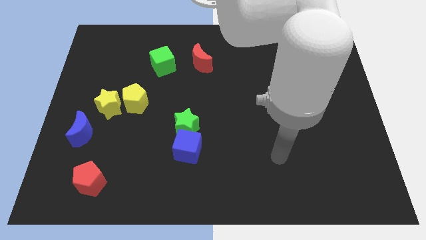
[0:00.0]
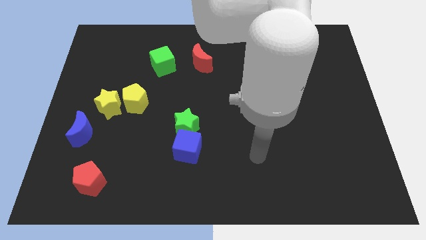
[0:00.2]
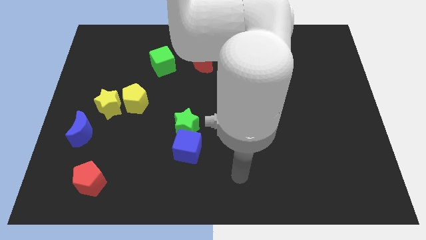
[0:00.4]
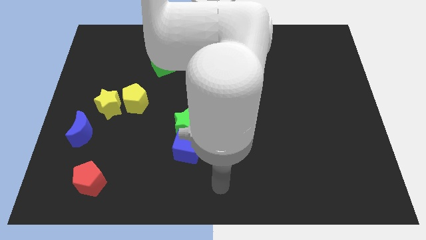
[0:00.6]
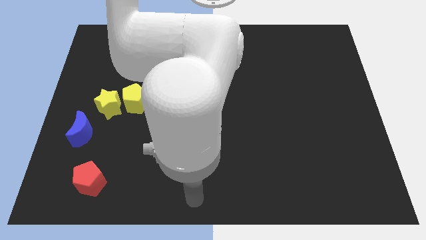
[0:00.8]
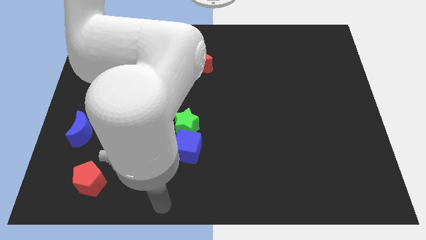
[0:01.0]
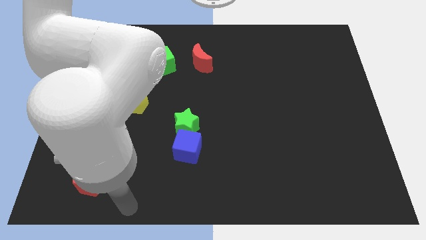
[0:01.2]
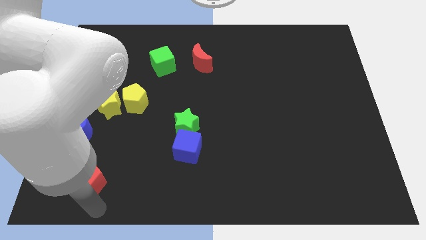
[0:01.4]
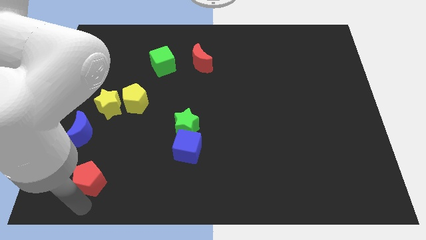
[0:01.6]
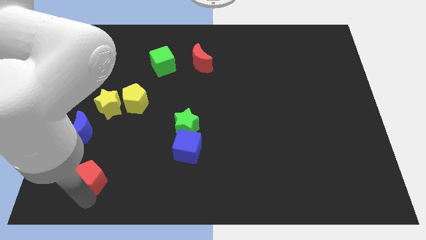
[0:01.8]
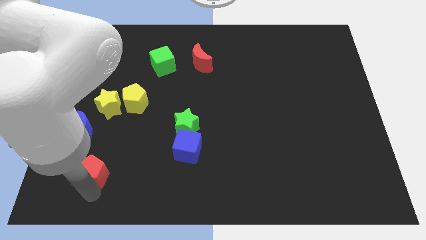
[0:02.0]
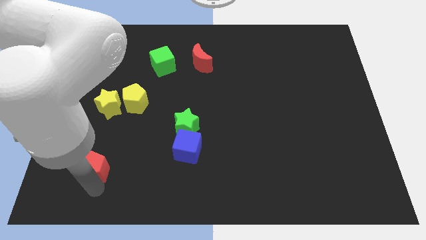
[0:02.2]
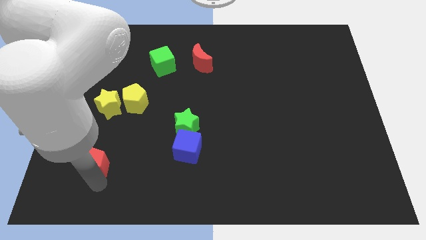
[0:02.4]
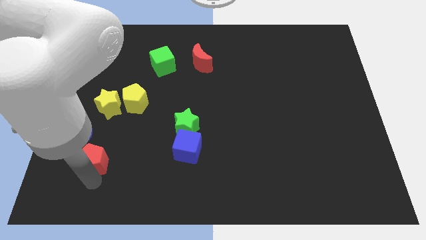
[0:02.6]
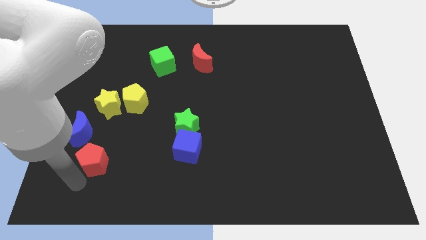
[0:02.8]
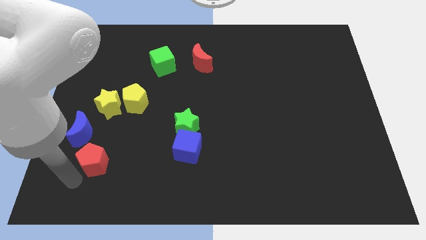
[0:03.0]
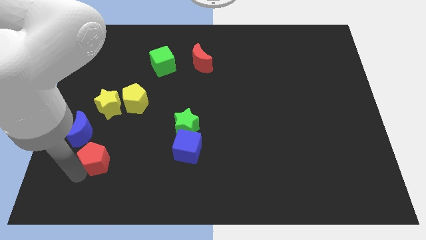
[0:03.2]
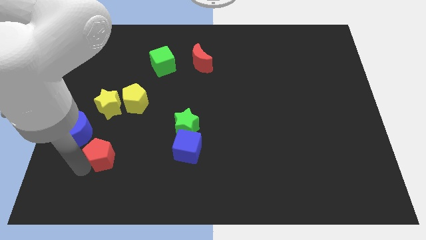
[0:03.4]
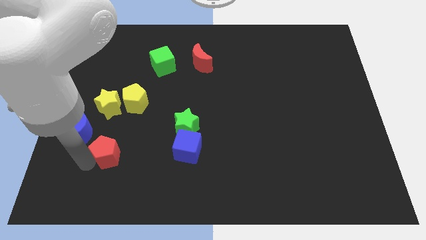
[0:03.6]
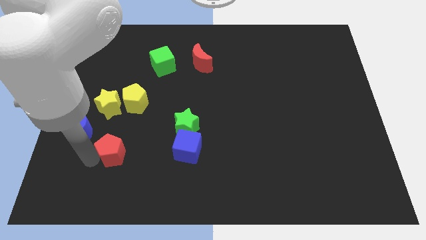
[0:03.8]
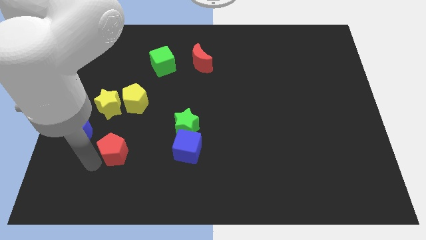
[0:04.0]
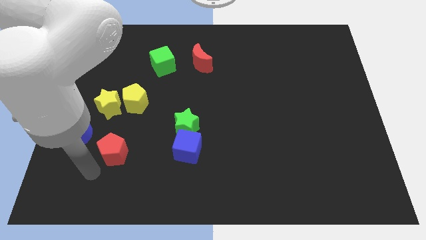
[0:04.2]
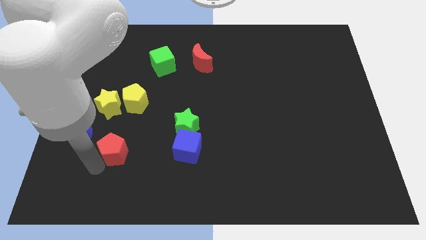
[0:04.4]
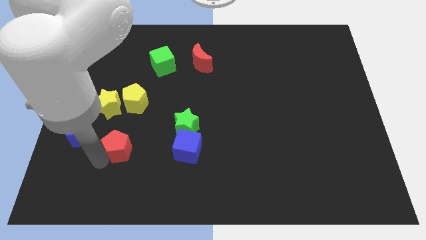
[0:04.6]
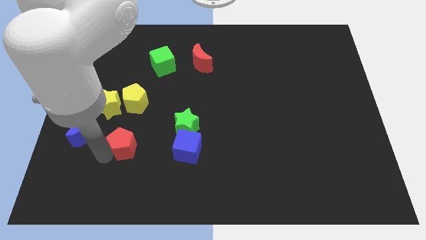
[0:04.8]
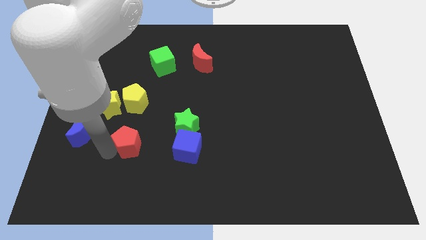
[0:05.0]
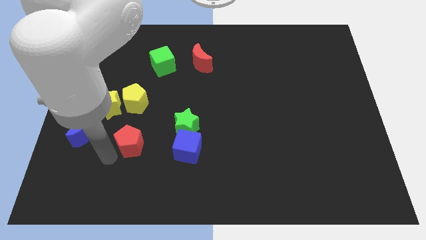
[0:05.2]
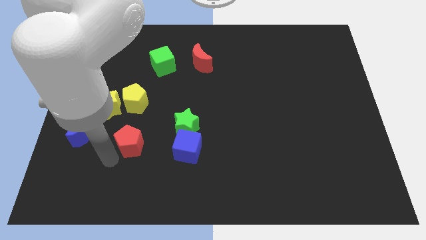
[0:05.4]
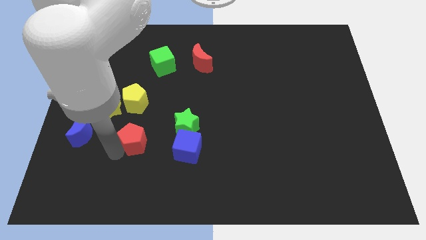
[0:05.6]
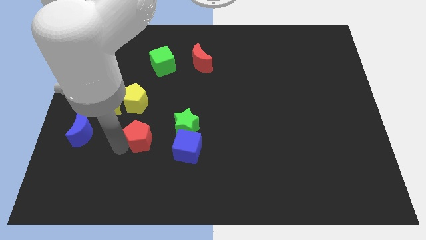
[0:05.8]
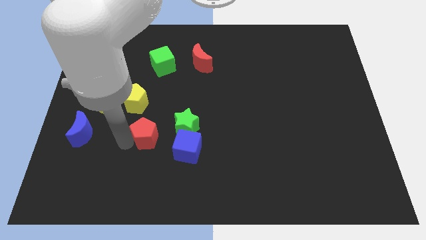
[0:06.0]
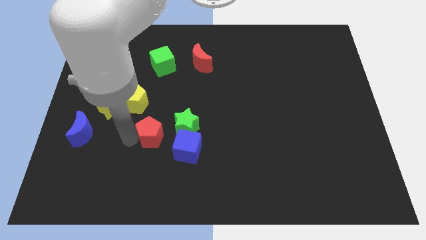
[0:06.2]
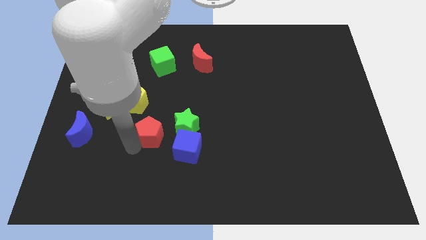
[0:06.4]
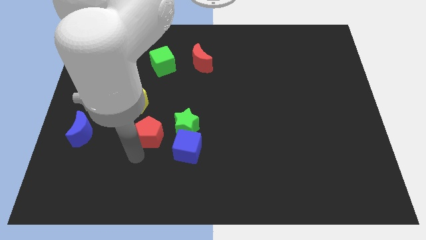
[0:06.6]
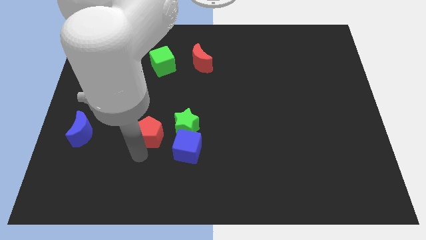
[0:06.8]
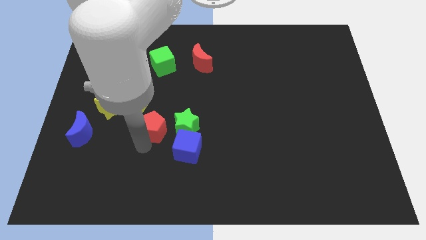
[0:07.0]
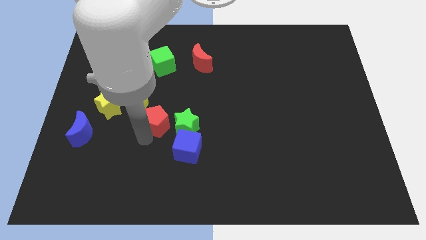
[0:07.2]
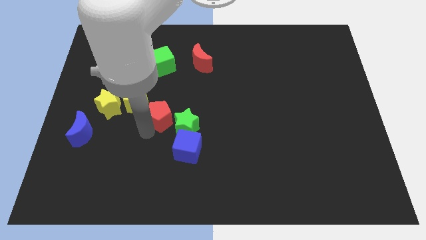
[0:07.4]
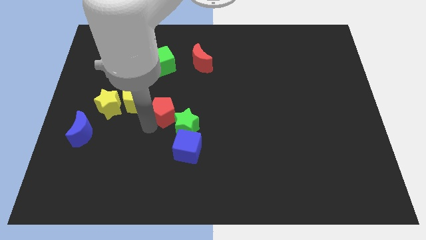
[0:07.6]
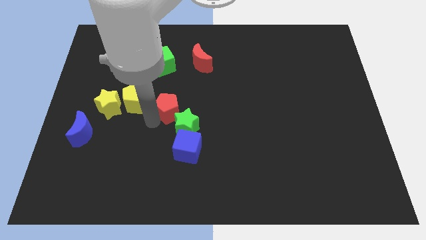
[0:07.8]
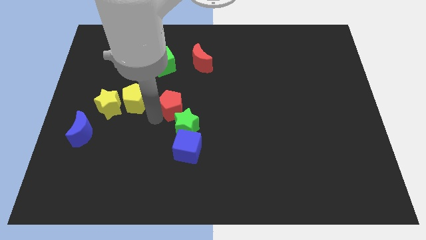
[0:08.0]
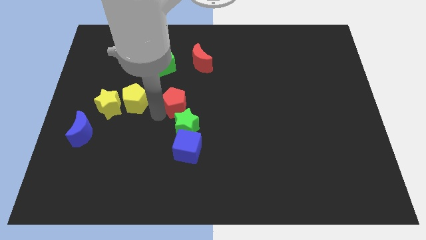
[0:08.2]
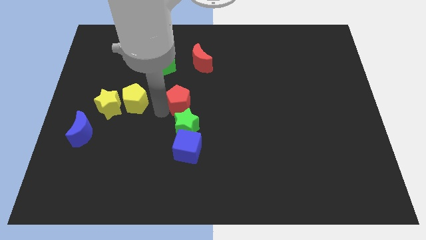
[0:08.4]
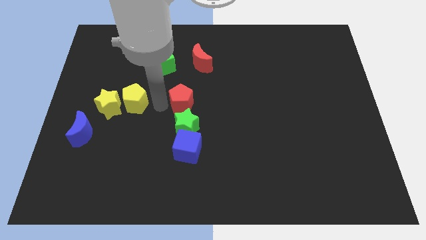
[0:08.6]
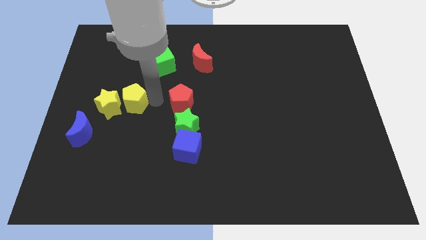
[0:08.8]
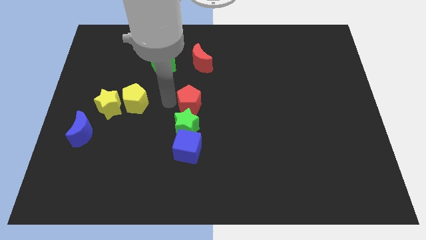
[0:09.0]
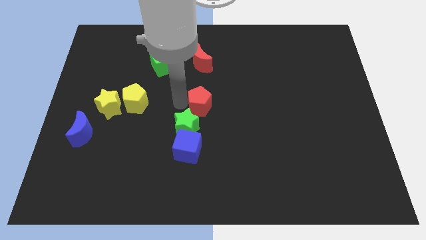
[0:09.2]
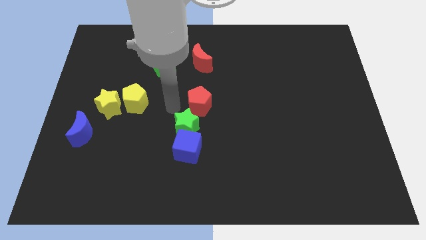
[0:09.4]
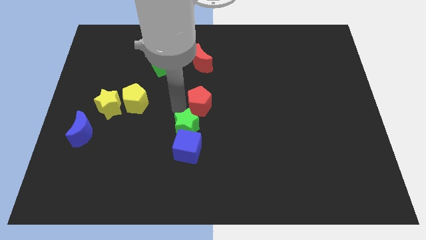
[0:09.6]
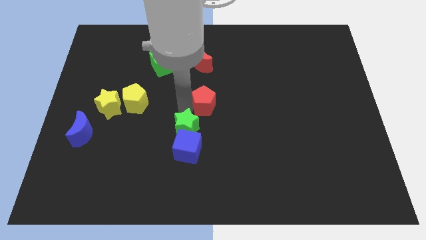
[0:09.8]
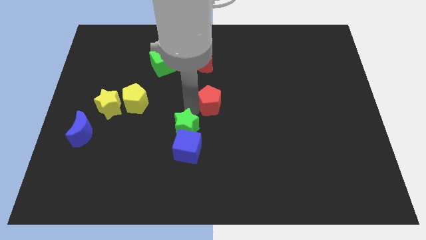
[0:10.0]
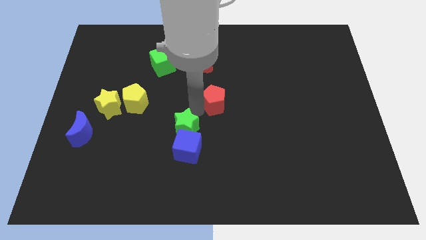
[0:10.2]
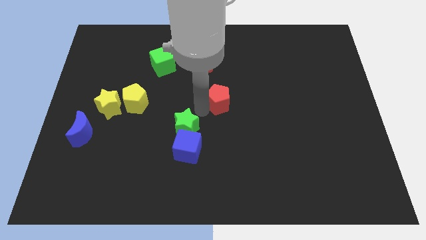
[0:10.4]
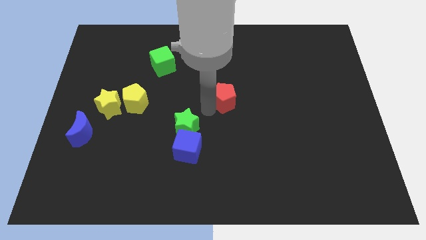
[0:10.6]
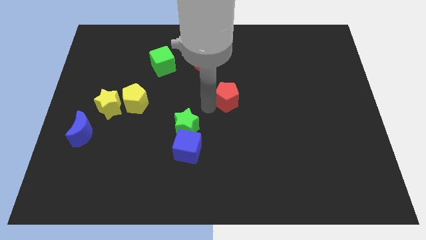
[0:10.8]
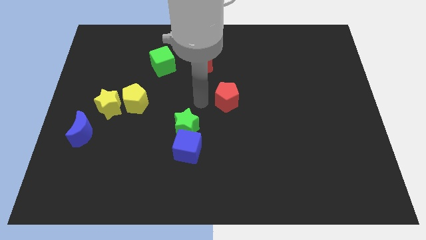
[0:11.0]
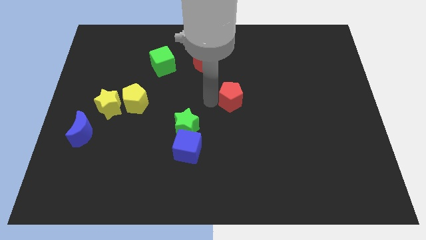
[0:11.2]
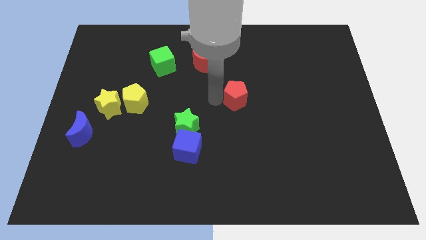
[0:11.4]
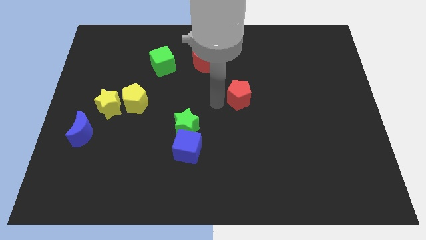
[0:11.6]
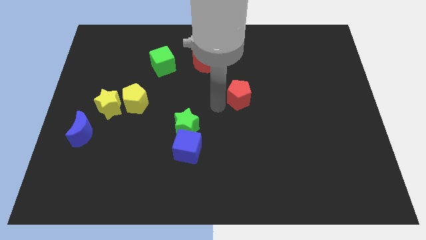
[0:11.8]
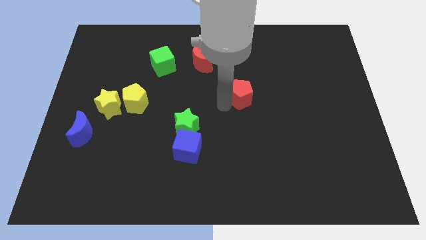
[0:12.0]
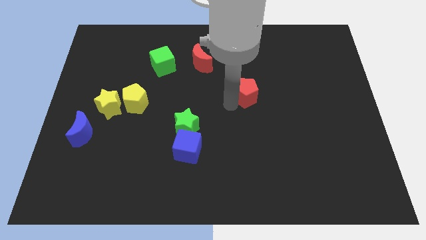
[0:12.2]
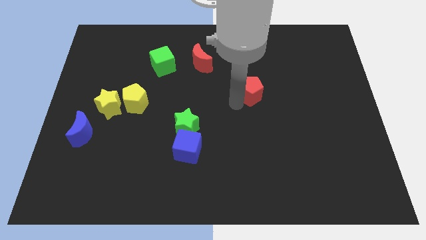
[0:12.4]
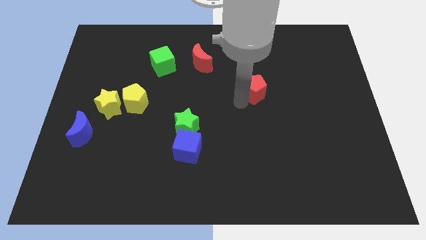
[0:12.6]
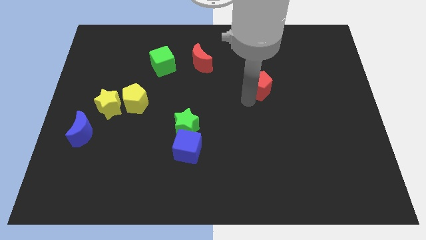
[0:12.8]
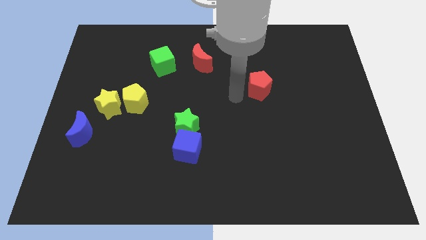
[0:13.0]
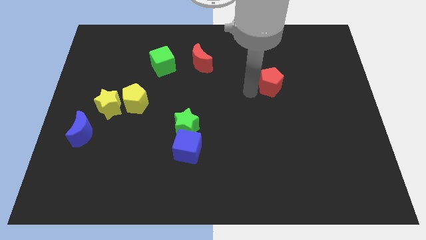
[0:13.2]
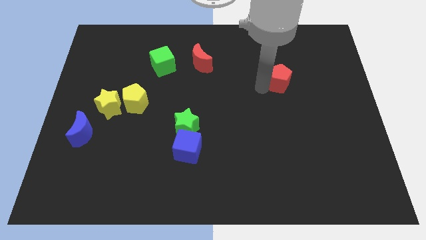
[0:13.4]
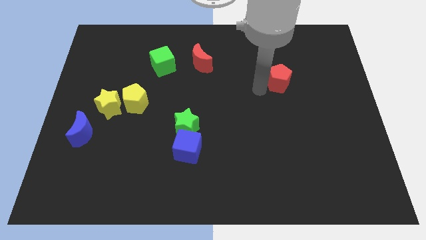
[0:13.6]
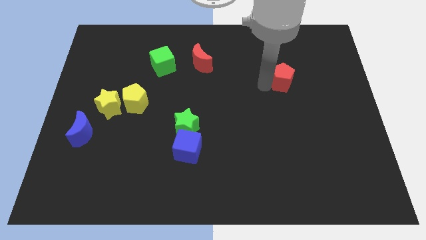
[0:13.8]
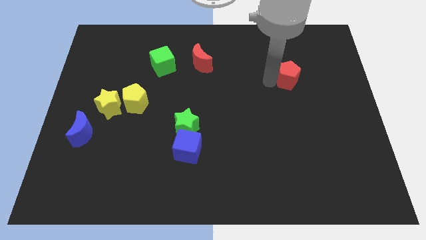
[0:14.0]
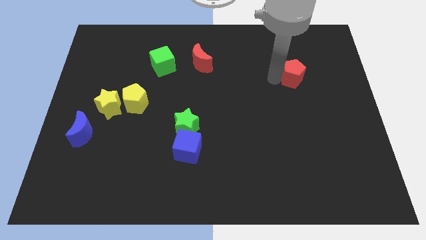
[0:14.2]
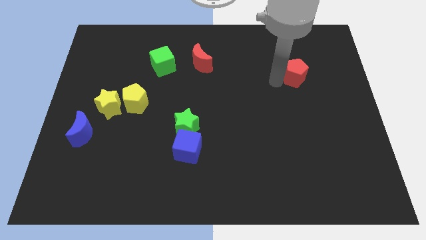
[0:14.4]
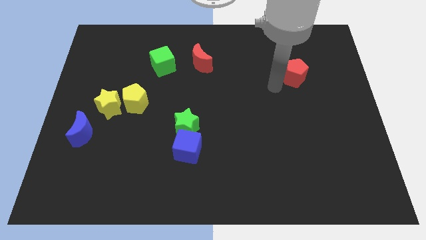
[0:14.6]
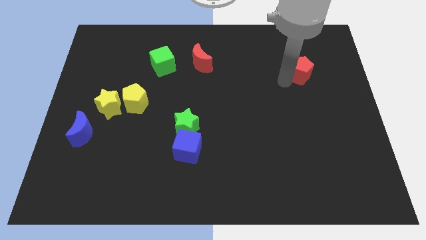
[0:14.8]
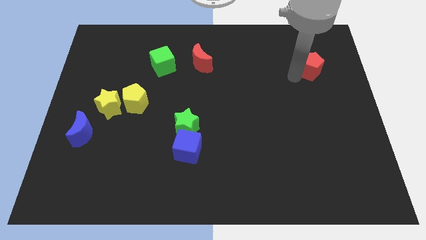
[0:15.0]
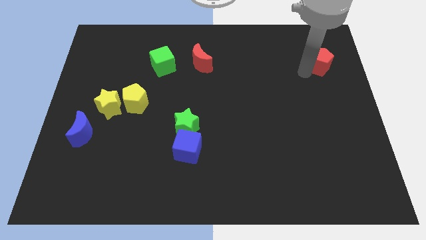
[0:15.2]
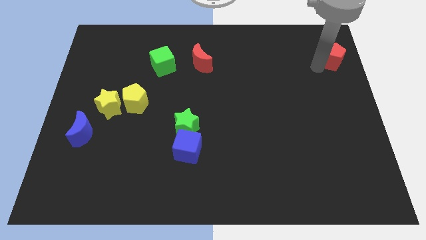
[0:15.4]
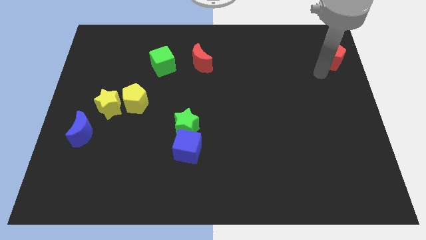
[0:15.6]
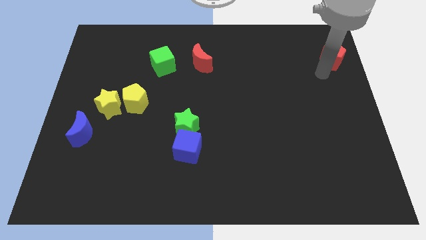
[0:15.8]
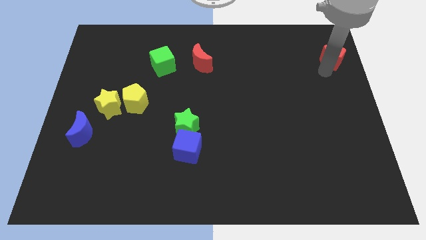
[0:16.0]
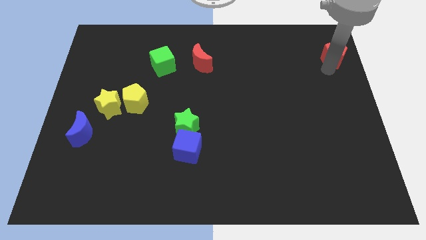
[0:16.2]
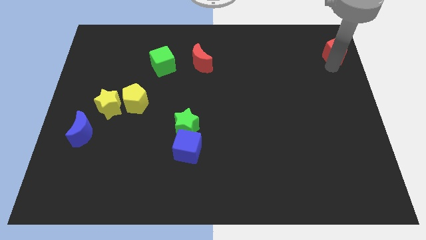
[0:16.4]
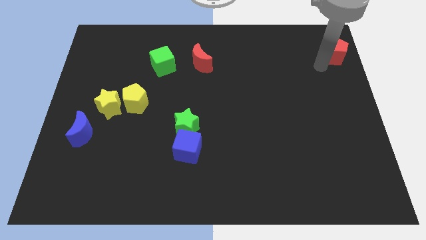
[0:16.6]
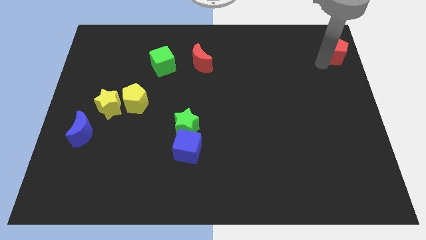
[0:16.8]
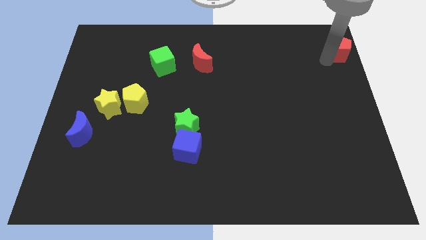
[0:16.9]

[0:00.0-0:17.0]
move the red pentagon to the top right corner
